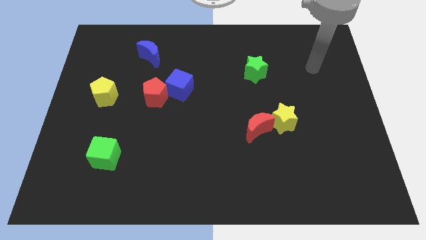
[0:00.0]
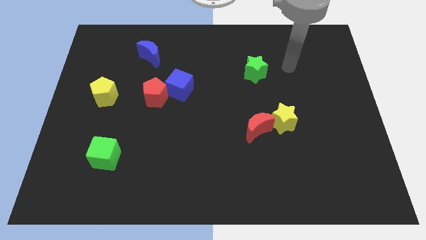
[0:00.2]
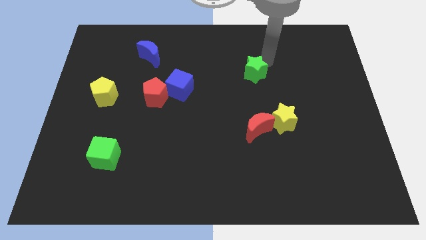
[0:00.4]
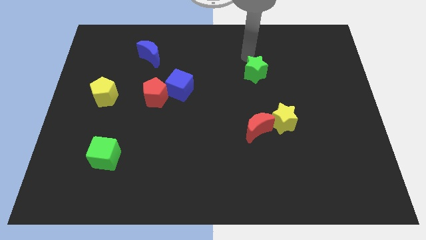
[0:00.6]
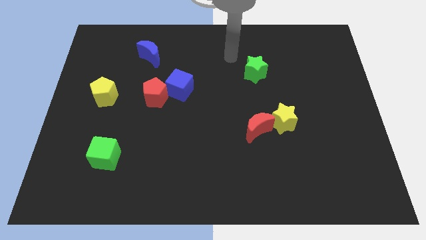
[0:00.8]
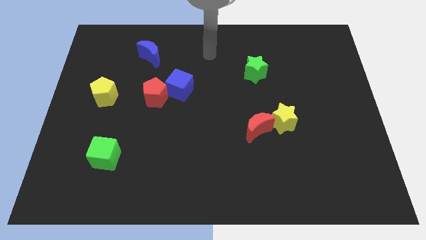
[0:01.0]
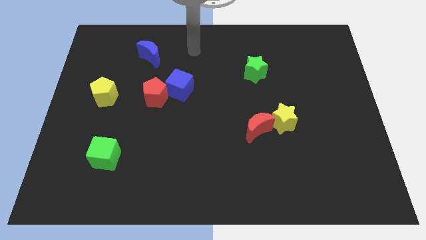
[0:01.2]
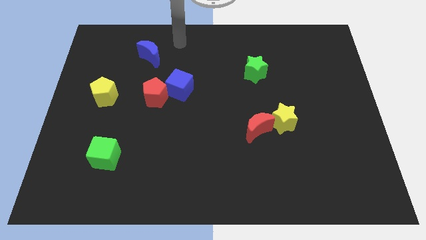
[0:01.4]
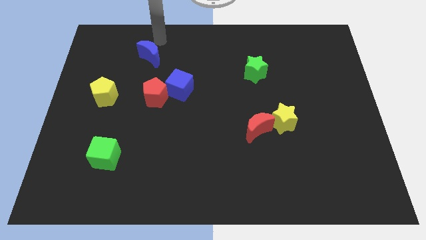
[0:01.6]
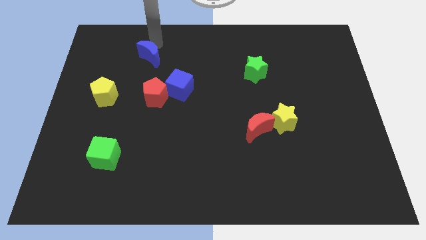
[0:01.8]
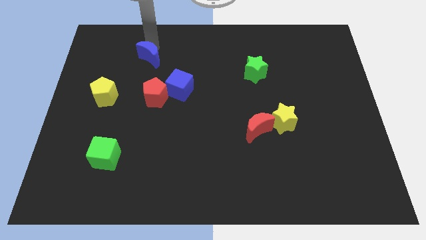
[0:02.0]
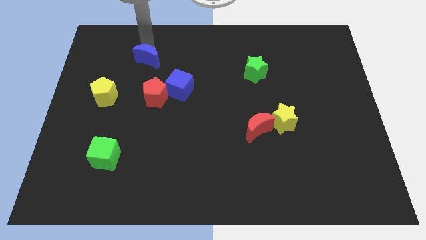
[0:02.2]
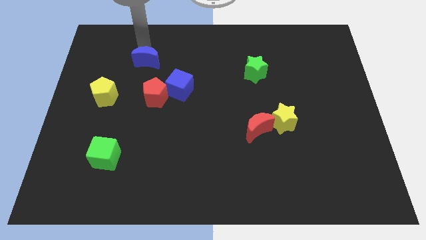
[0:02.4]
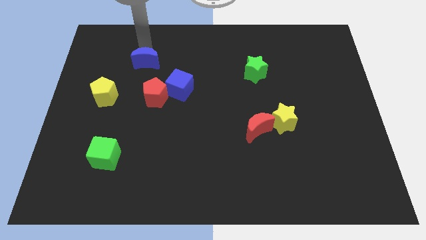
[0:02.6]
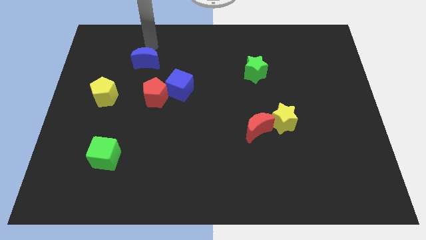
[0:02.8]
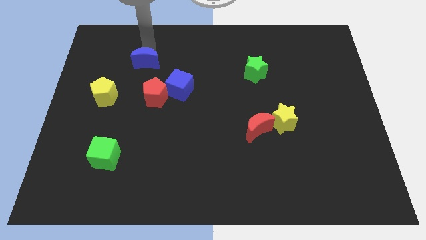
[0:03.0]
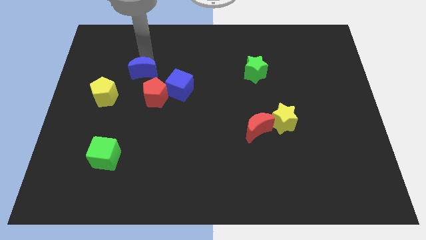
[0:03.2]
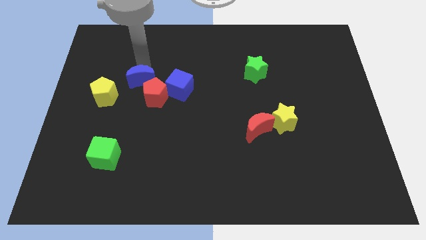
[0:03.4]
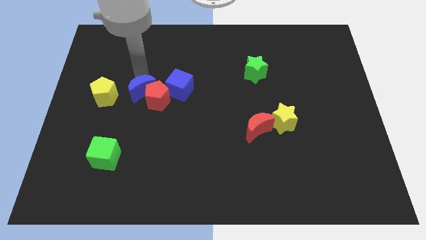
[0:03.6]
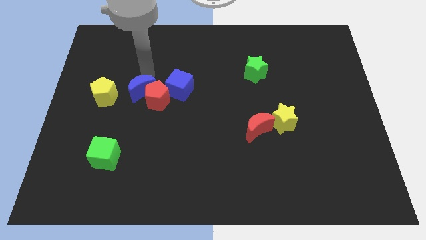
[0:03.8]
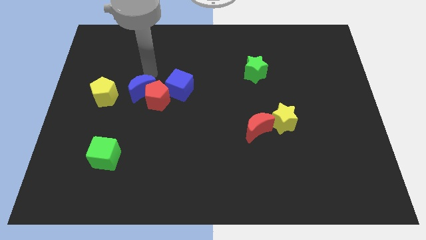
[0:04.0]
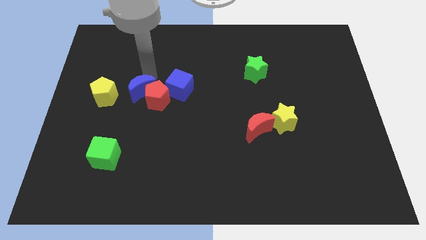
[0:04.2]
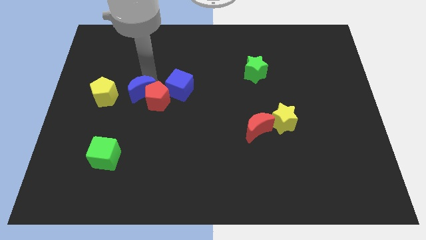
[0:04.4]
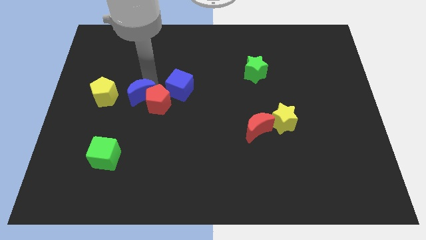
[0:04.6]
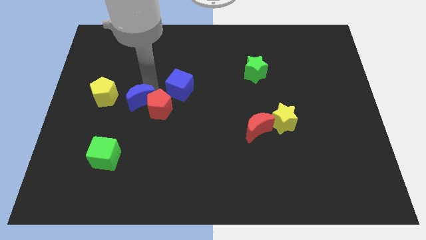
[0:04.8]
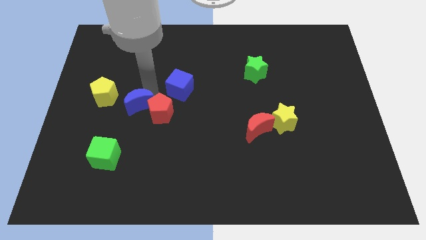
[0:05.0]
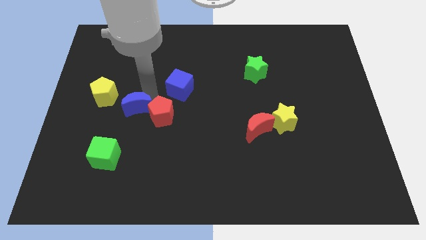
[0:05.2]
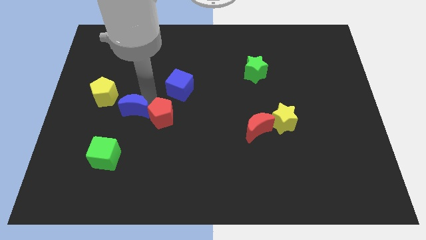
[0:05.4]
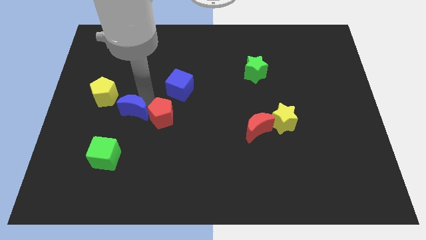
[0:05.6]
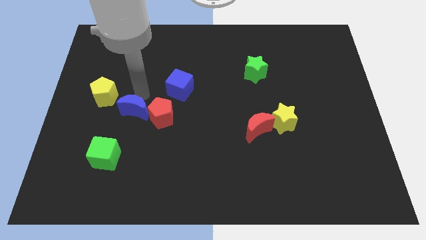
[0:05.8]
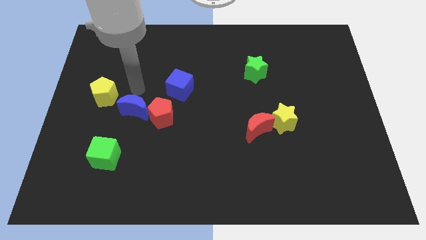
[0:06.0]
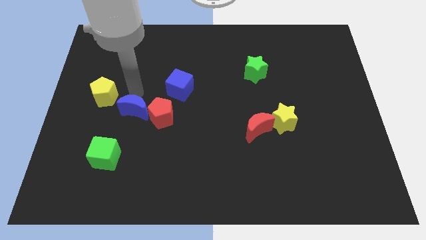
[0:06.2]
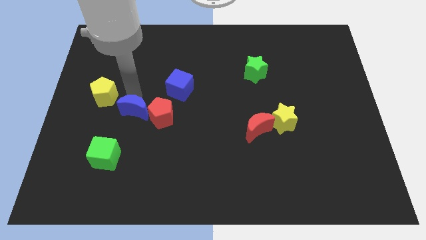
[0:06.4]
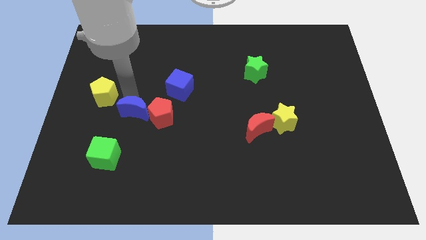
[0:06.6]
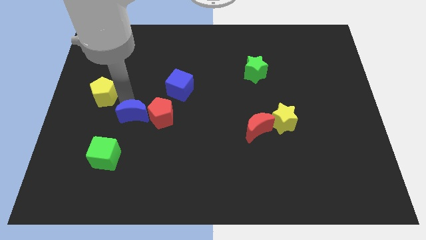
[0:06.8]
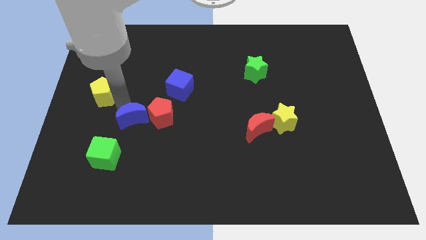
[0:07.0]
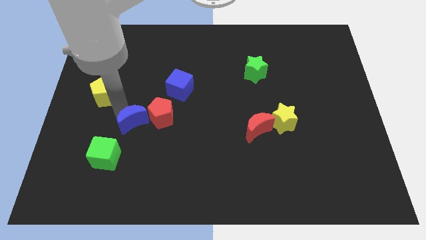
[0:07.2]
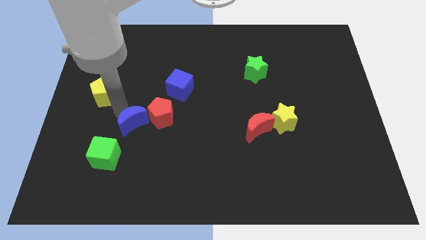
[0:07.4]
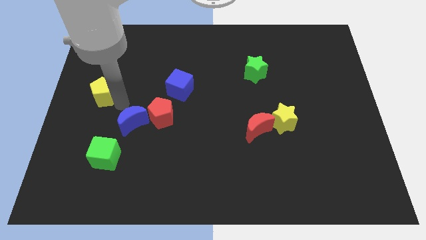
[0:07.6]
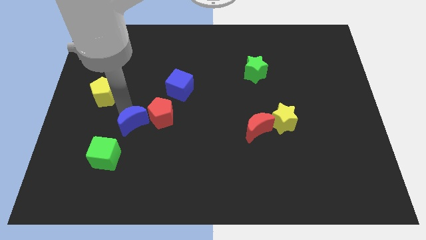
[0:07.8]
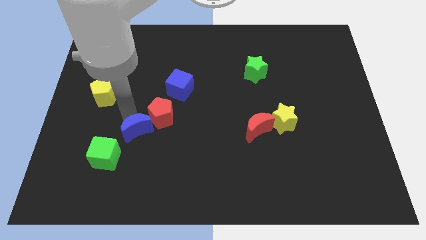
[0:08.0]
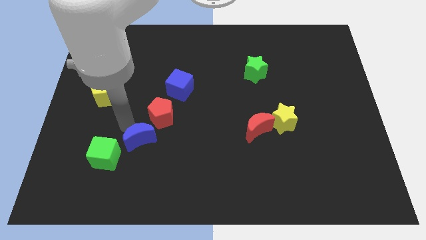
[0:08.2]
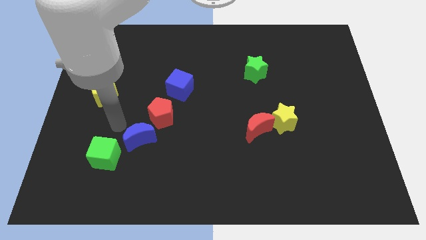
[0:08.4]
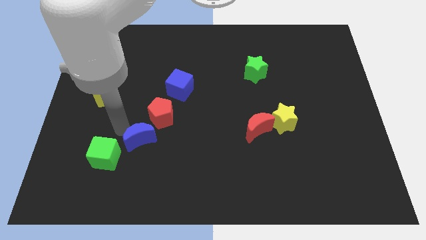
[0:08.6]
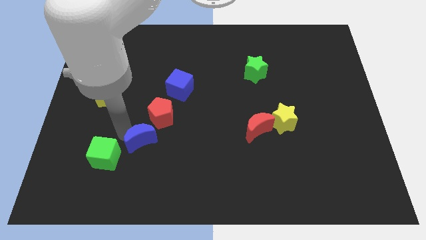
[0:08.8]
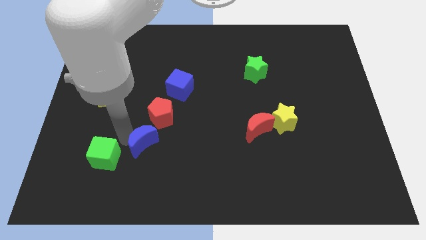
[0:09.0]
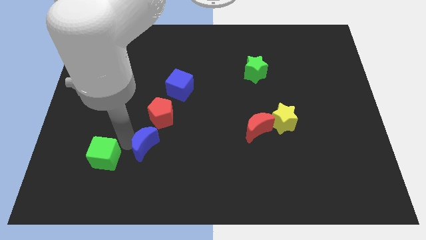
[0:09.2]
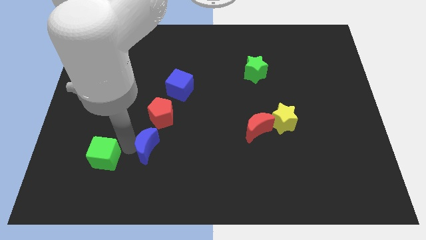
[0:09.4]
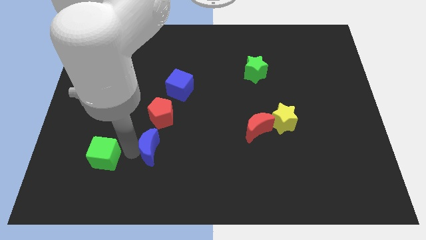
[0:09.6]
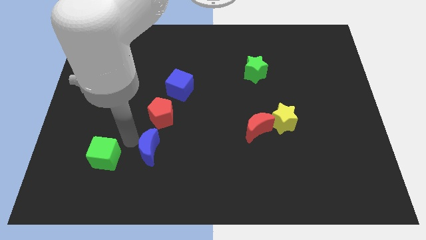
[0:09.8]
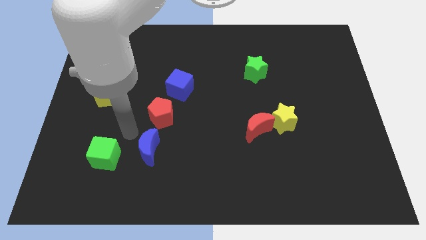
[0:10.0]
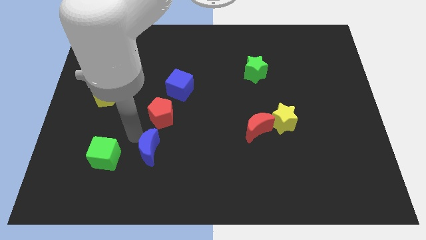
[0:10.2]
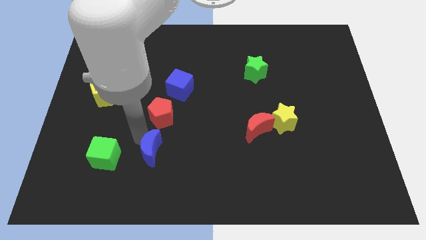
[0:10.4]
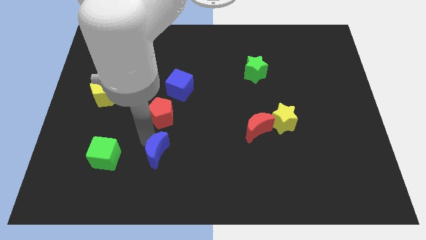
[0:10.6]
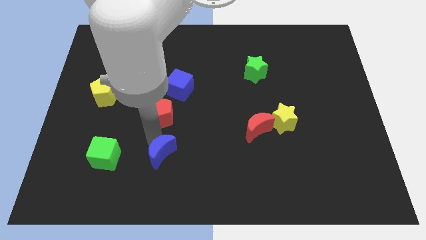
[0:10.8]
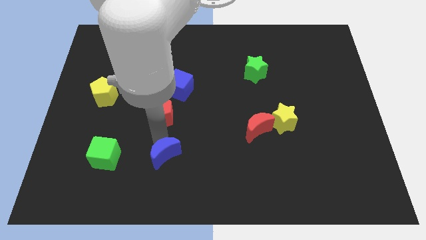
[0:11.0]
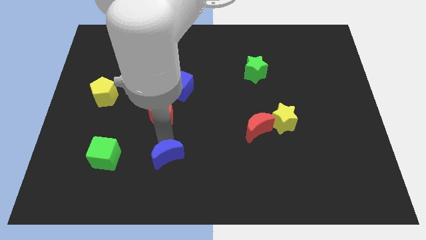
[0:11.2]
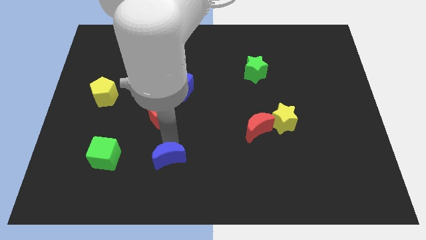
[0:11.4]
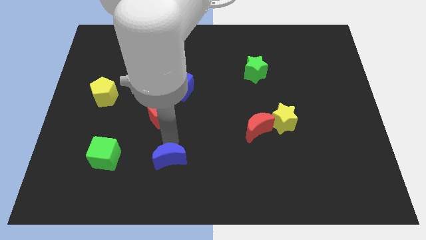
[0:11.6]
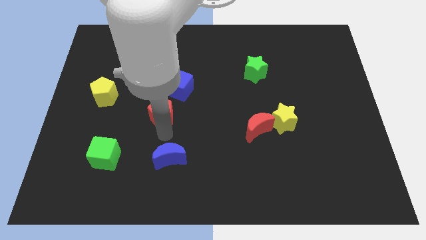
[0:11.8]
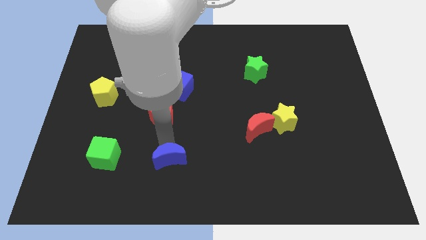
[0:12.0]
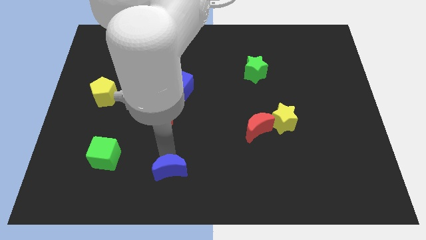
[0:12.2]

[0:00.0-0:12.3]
move the blue moon to the bottom
